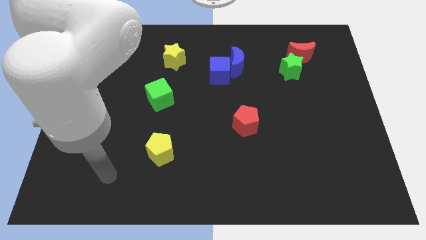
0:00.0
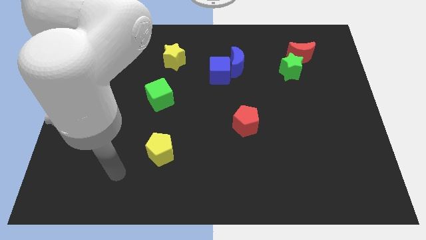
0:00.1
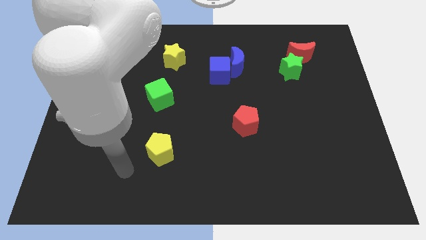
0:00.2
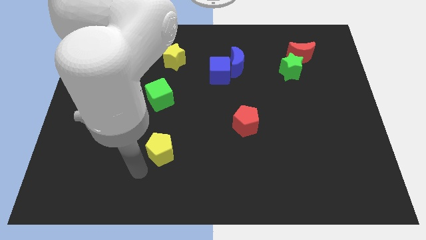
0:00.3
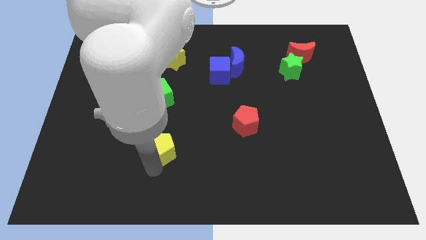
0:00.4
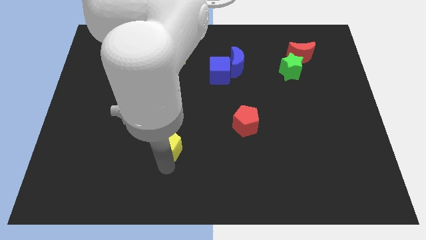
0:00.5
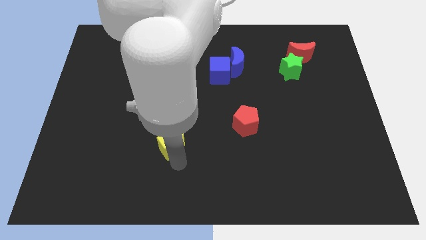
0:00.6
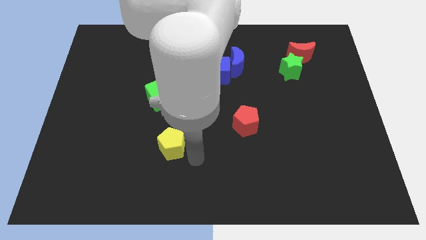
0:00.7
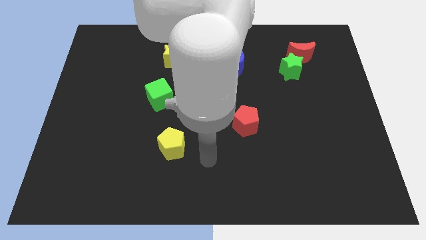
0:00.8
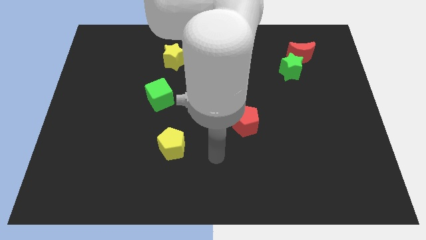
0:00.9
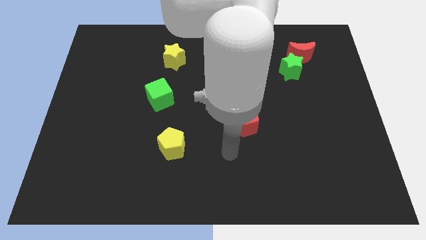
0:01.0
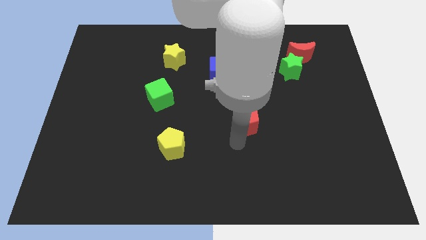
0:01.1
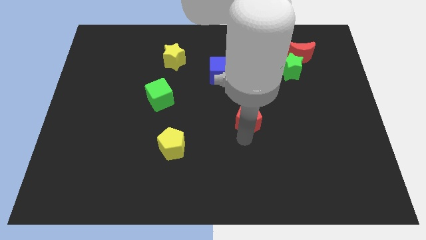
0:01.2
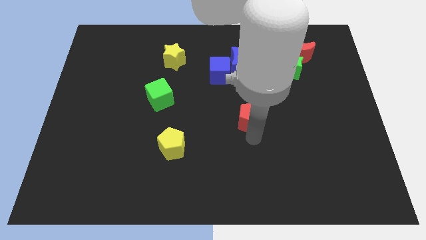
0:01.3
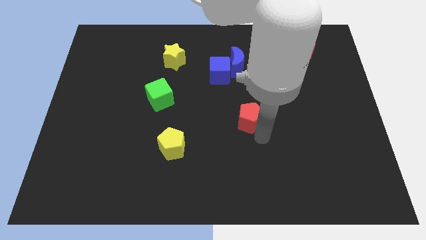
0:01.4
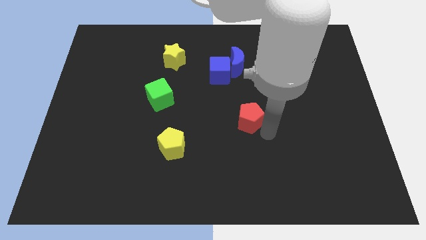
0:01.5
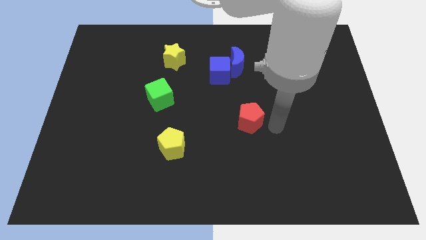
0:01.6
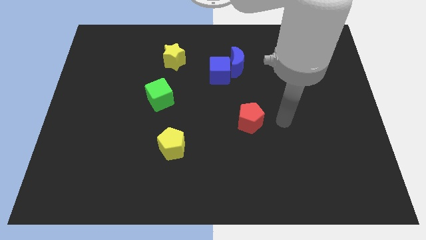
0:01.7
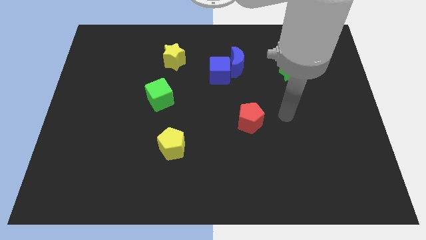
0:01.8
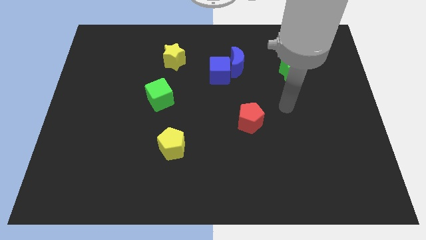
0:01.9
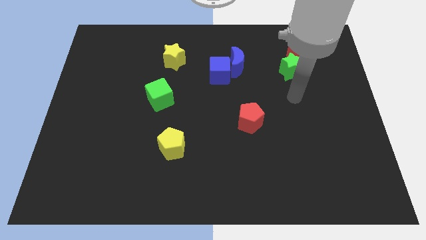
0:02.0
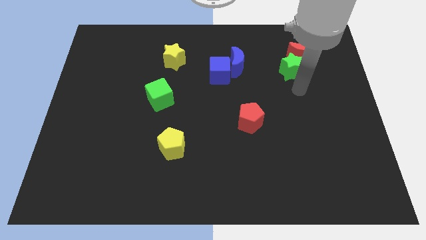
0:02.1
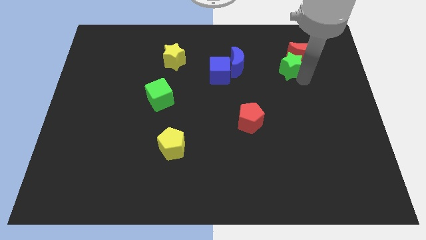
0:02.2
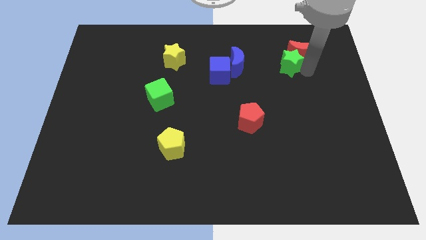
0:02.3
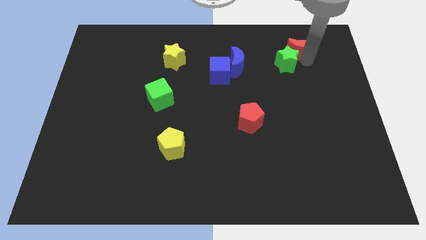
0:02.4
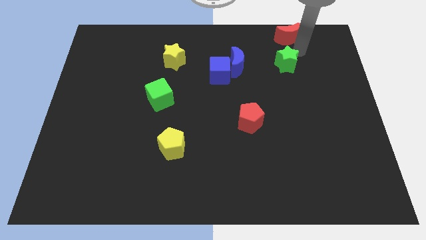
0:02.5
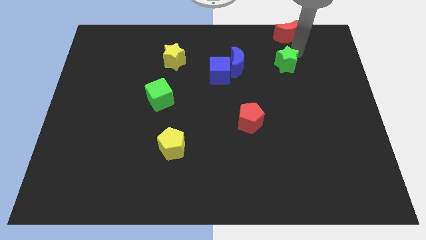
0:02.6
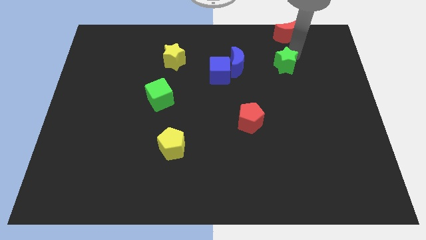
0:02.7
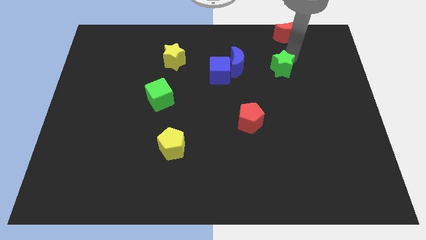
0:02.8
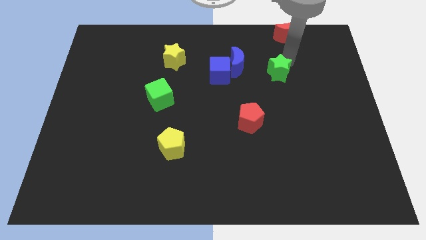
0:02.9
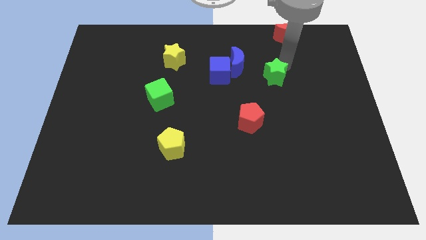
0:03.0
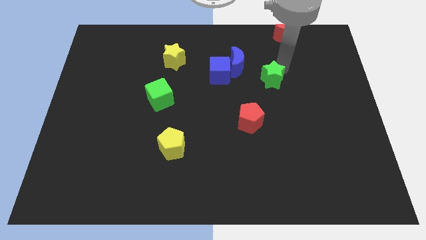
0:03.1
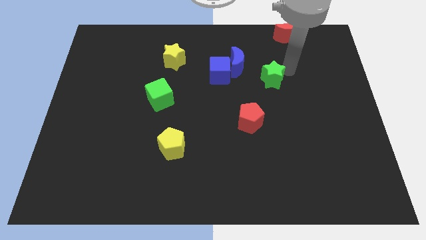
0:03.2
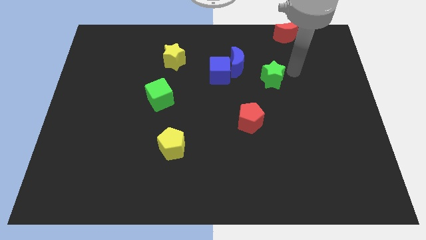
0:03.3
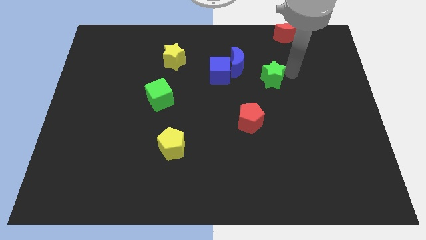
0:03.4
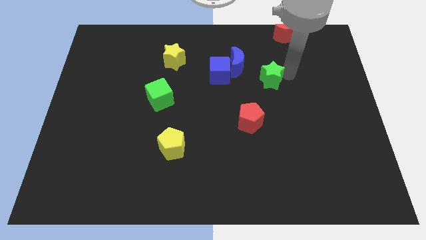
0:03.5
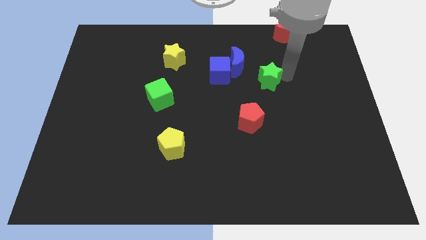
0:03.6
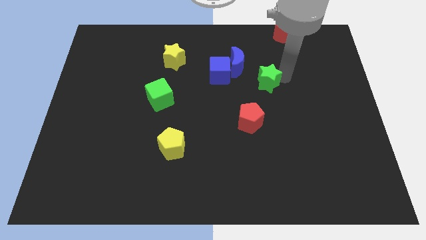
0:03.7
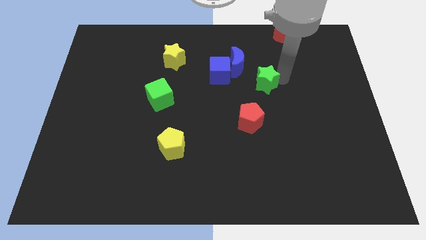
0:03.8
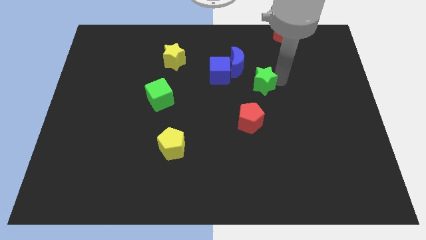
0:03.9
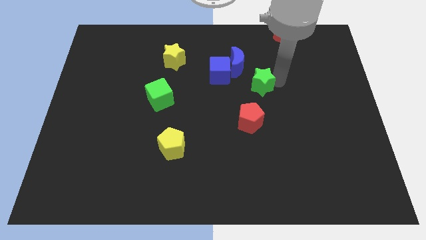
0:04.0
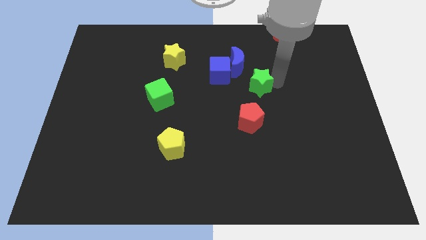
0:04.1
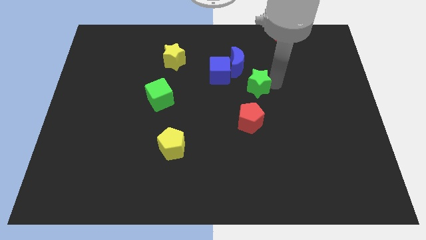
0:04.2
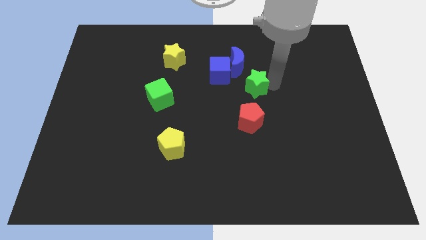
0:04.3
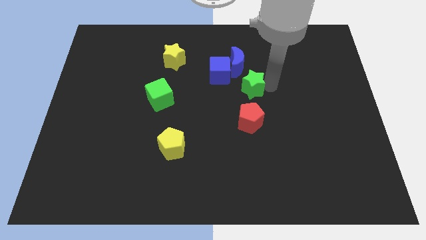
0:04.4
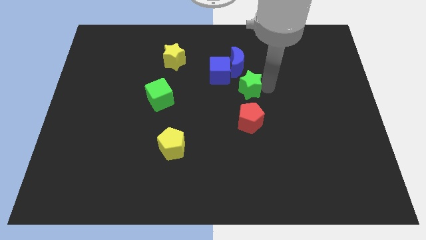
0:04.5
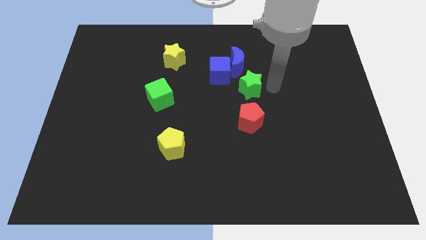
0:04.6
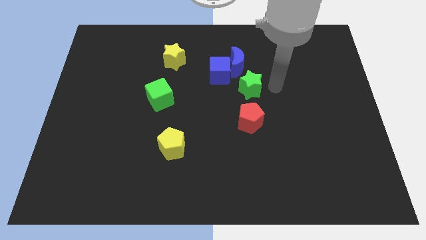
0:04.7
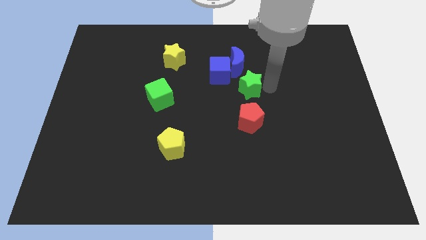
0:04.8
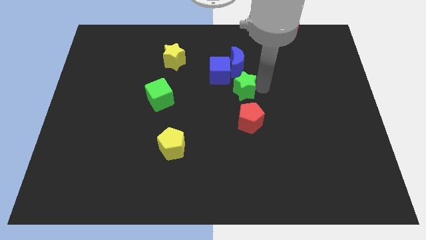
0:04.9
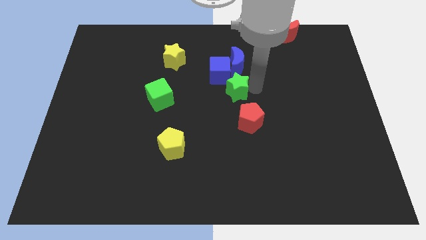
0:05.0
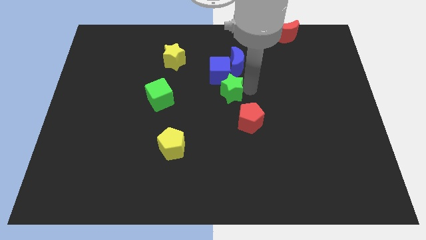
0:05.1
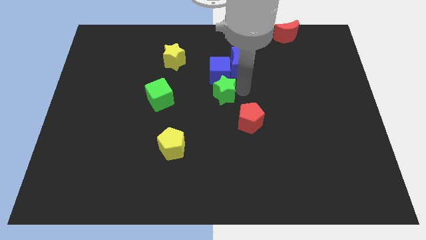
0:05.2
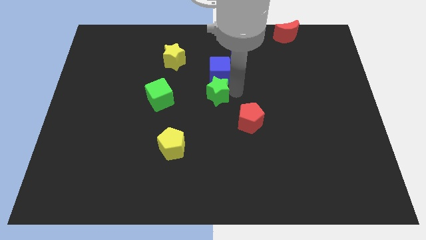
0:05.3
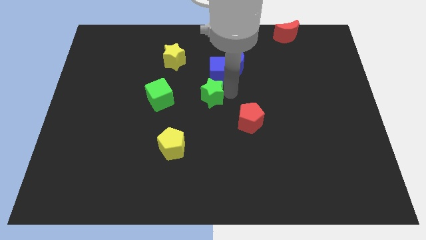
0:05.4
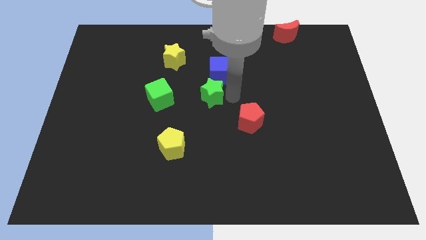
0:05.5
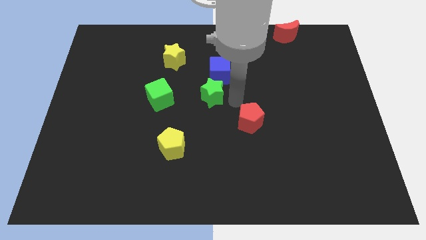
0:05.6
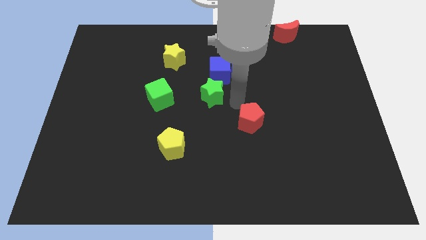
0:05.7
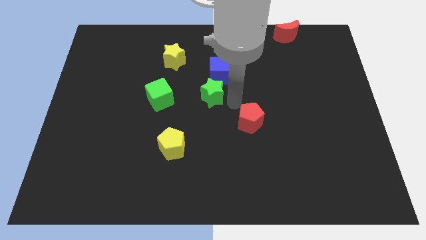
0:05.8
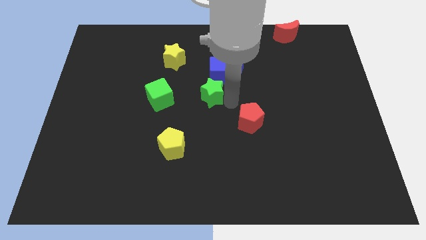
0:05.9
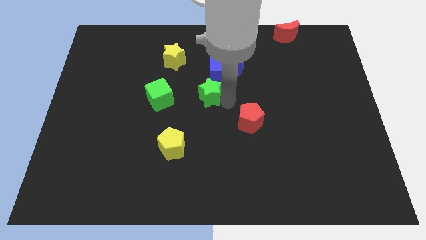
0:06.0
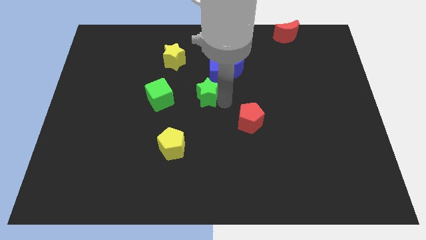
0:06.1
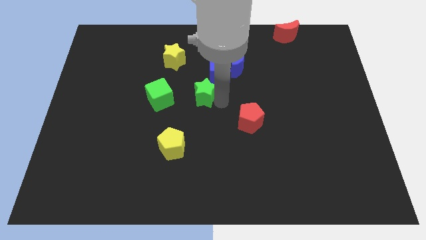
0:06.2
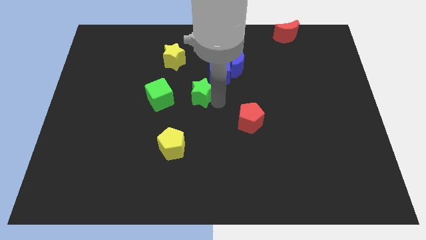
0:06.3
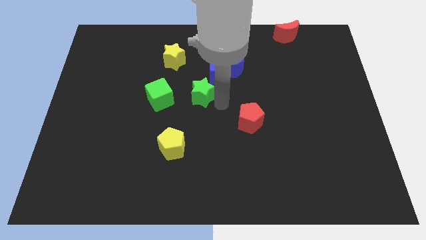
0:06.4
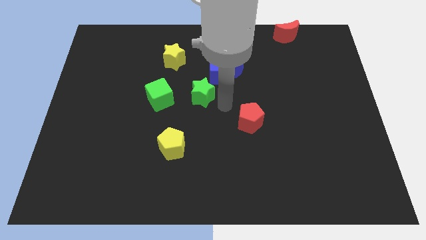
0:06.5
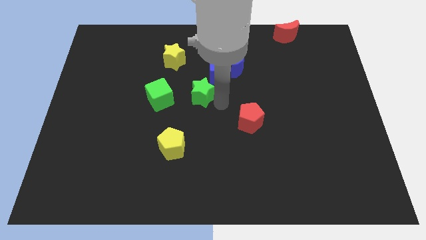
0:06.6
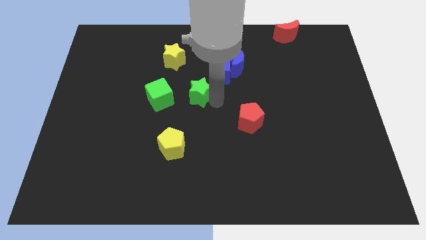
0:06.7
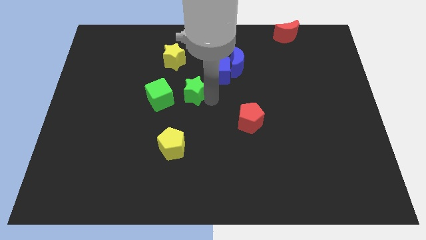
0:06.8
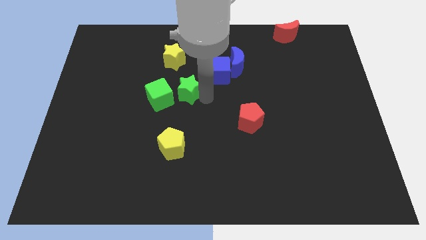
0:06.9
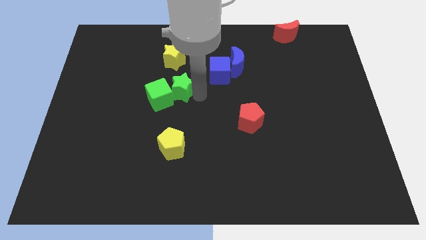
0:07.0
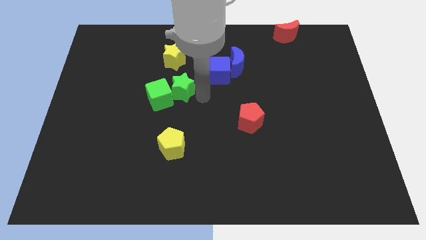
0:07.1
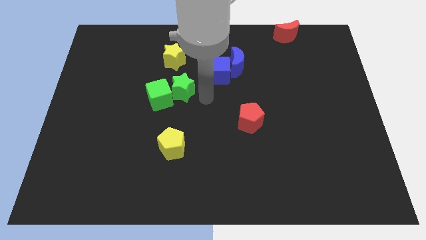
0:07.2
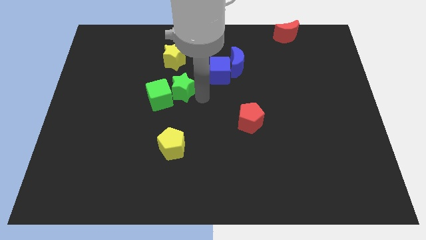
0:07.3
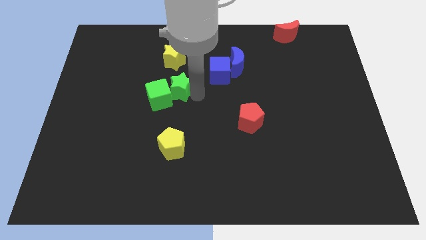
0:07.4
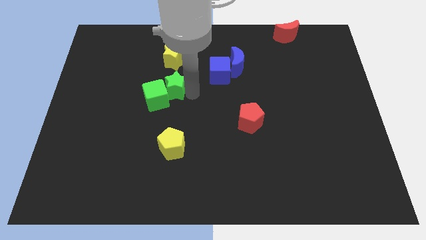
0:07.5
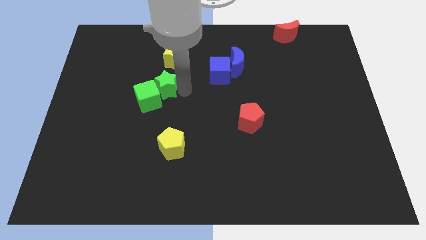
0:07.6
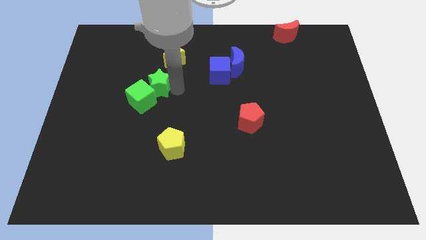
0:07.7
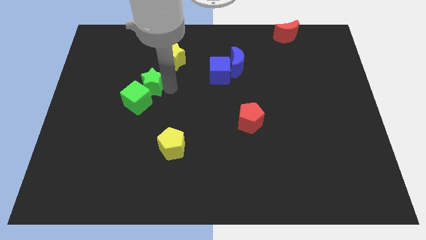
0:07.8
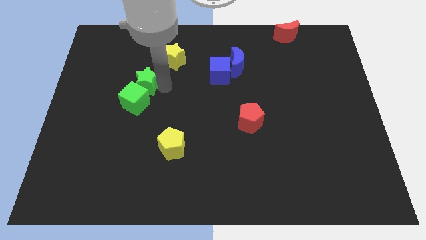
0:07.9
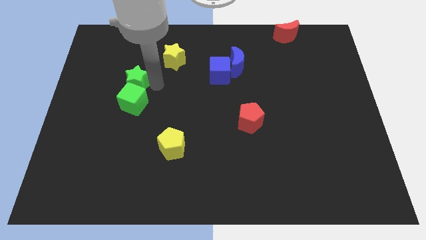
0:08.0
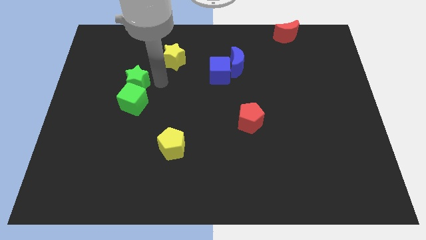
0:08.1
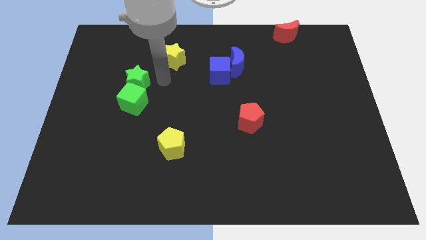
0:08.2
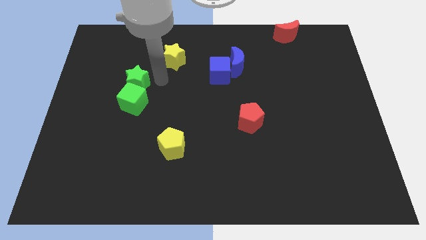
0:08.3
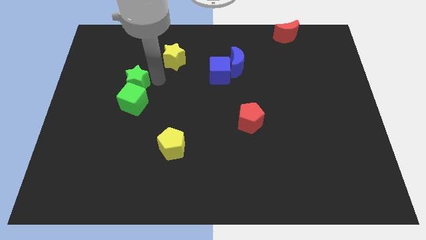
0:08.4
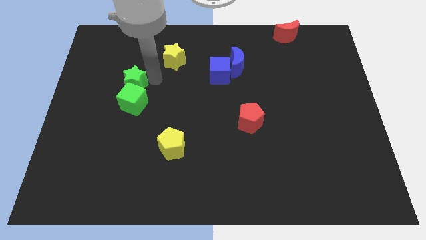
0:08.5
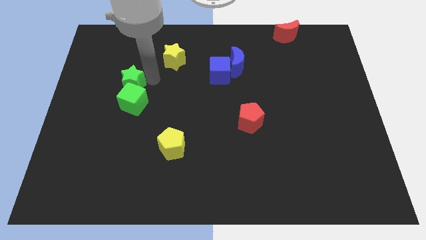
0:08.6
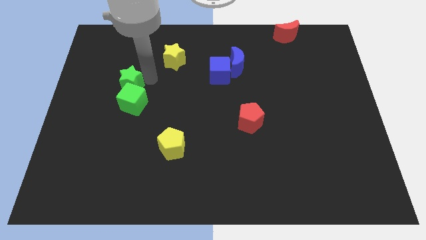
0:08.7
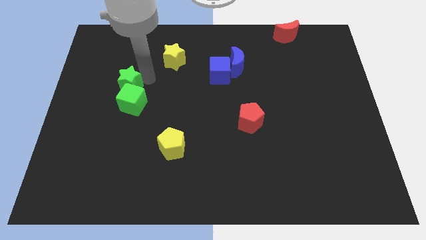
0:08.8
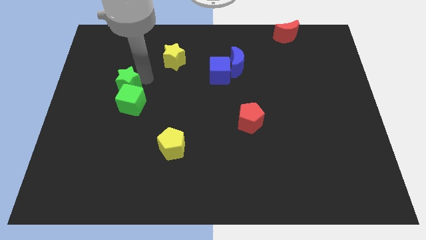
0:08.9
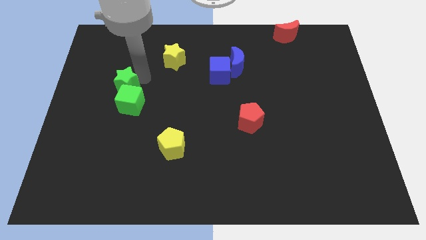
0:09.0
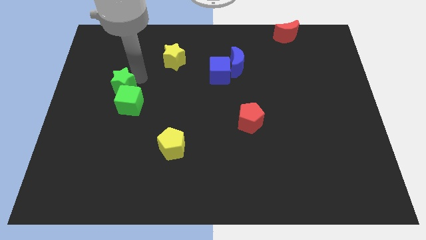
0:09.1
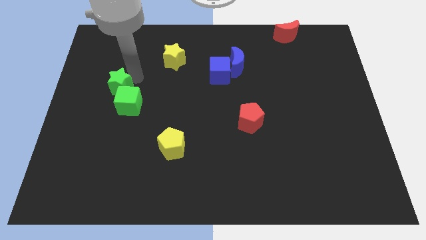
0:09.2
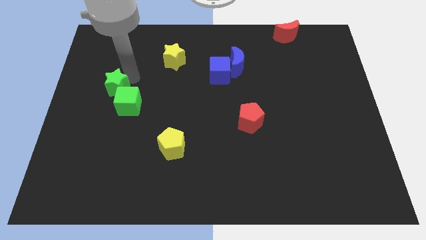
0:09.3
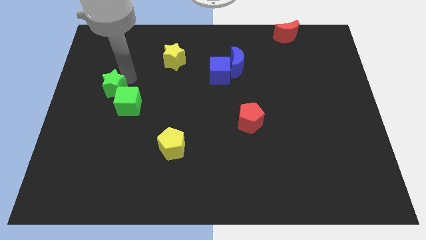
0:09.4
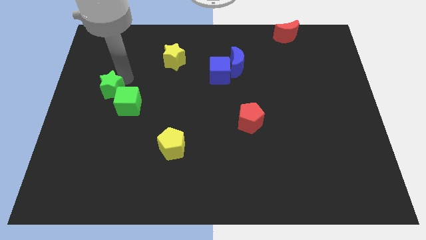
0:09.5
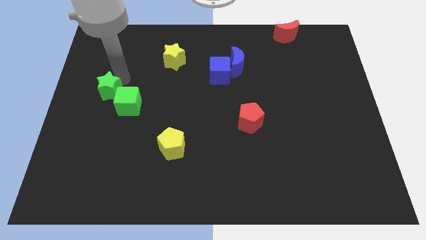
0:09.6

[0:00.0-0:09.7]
slide the green star to the left side of the board
